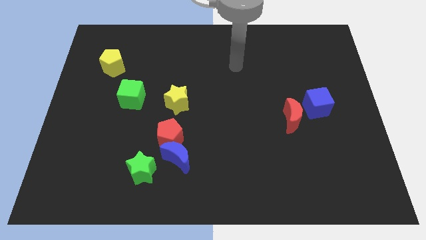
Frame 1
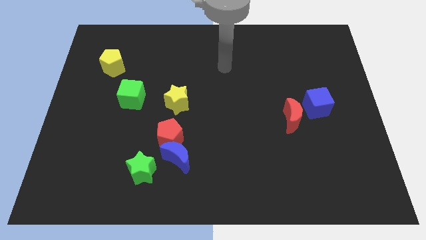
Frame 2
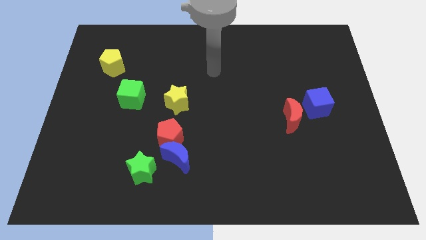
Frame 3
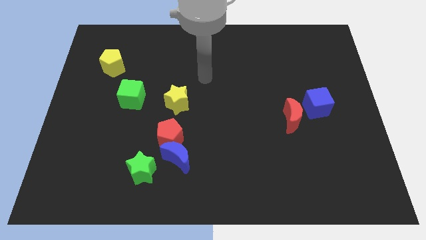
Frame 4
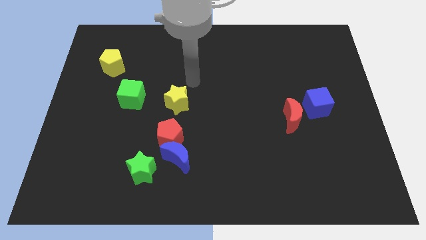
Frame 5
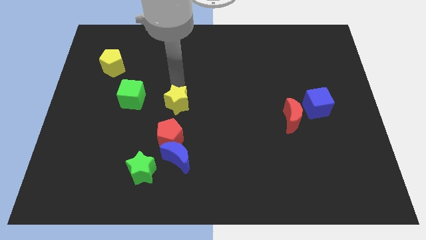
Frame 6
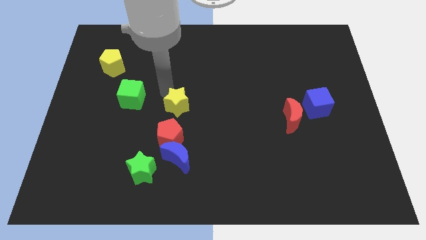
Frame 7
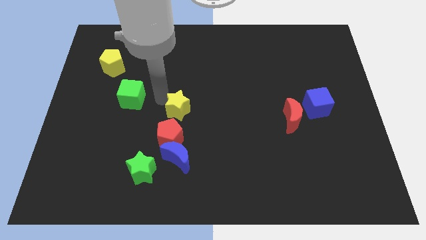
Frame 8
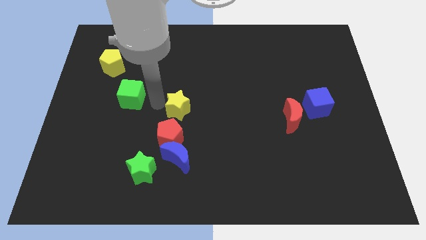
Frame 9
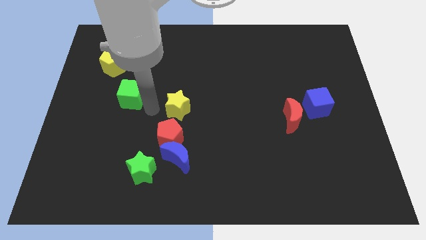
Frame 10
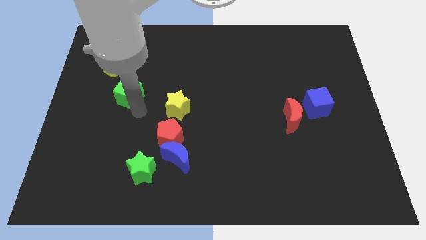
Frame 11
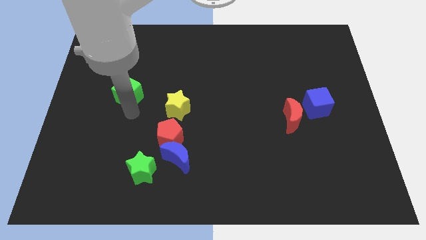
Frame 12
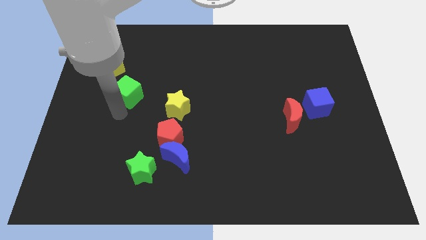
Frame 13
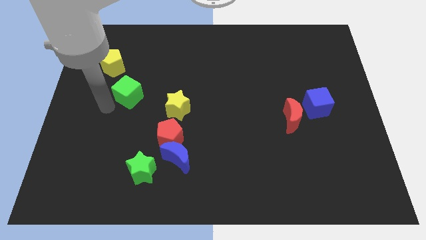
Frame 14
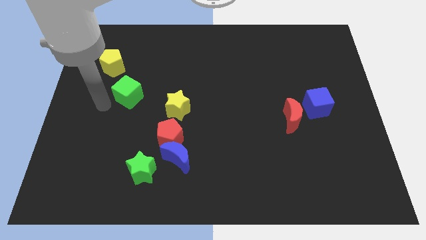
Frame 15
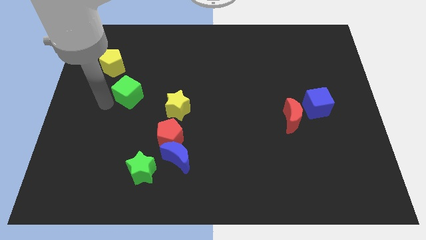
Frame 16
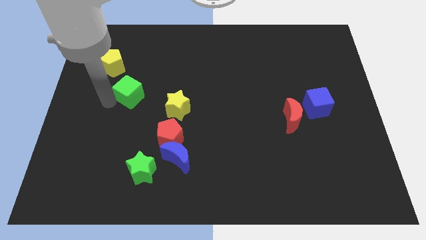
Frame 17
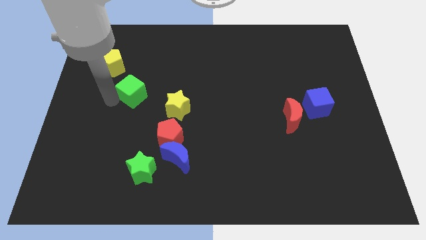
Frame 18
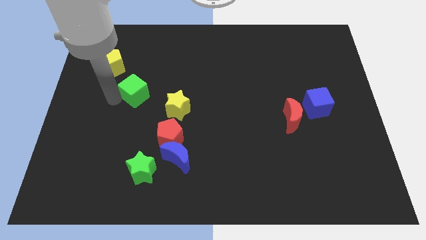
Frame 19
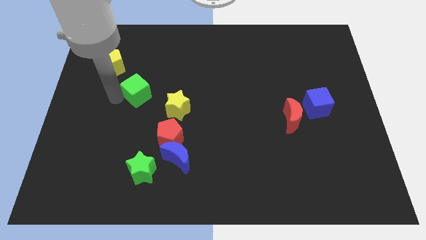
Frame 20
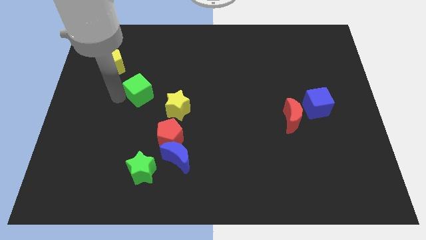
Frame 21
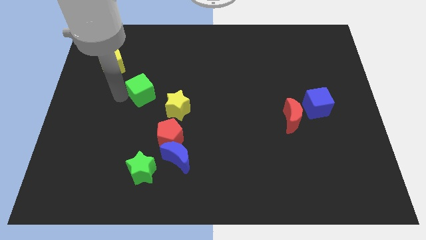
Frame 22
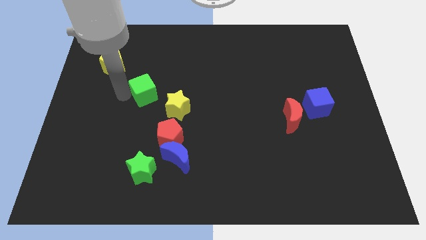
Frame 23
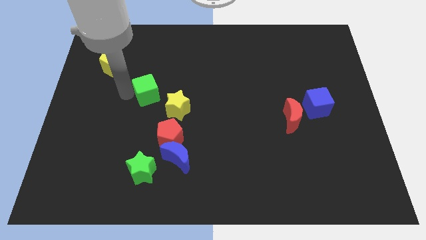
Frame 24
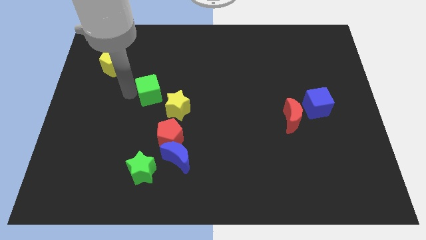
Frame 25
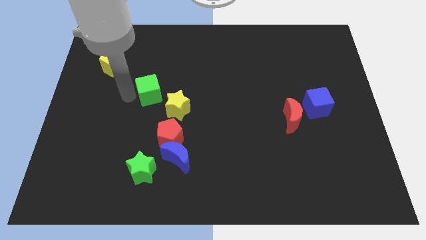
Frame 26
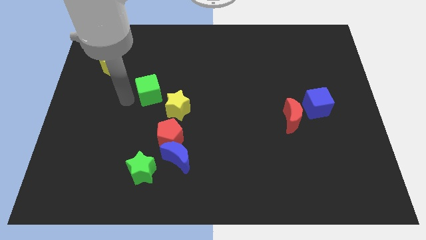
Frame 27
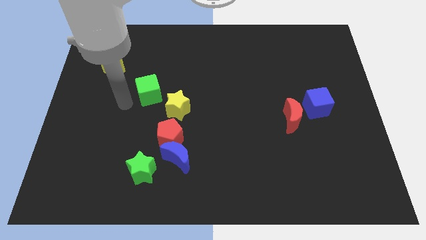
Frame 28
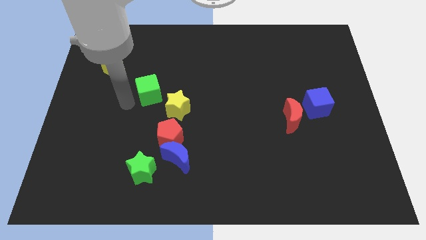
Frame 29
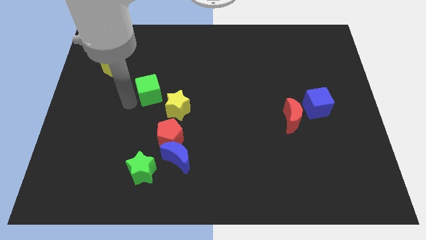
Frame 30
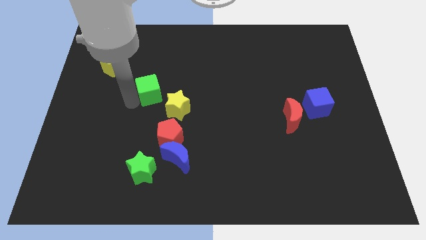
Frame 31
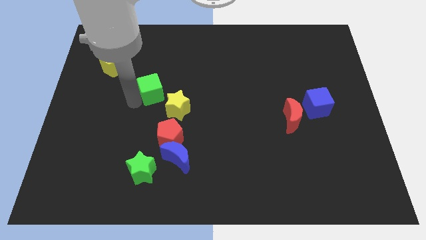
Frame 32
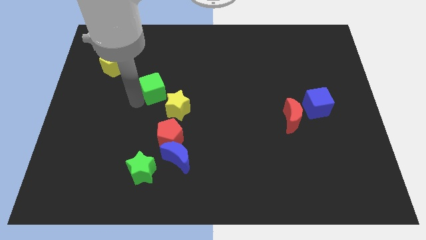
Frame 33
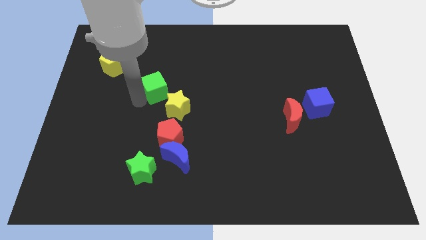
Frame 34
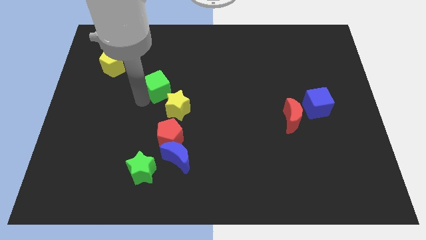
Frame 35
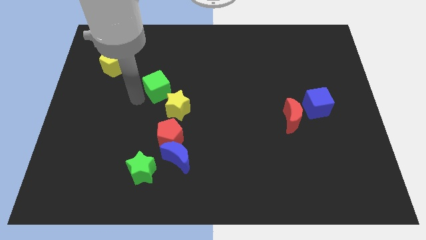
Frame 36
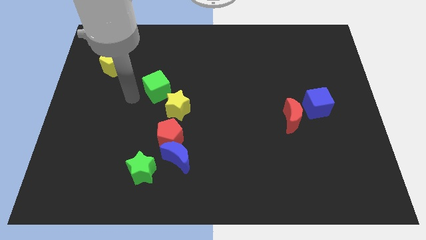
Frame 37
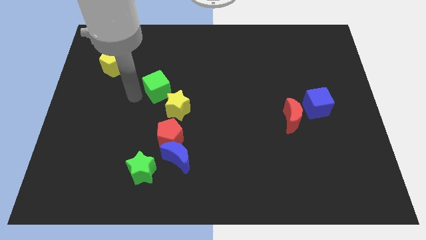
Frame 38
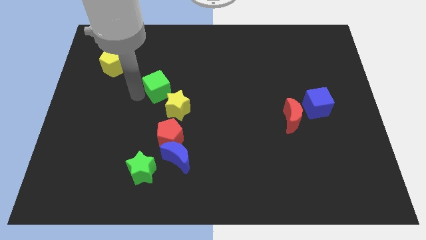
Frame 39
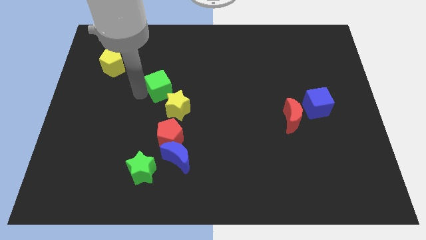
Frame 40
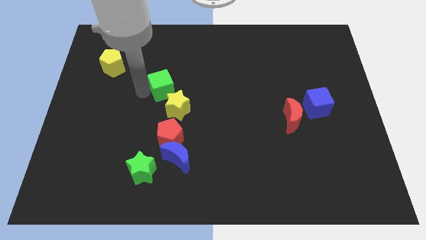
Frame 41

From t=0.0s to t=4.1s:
slide the green cube a little right

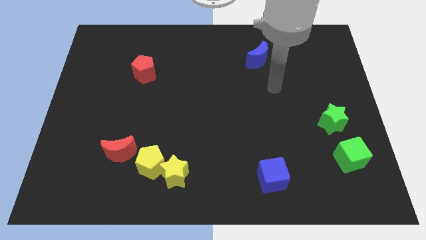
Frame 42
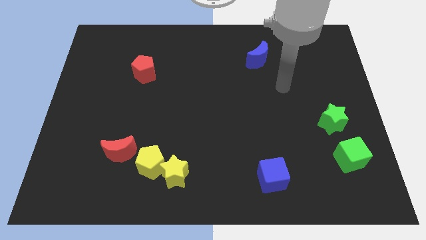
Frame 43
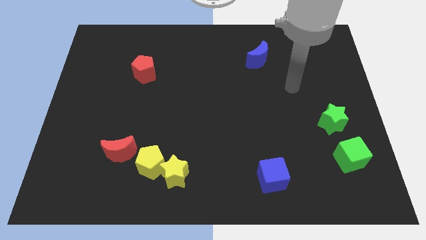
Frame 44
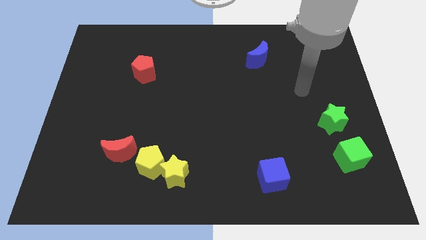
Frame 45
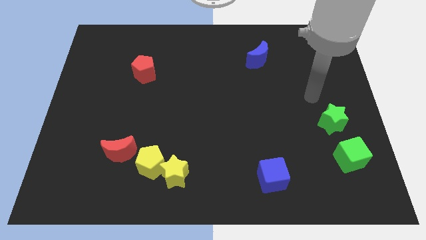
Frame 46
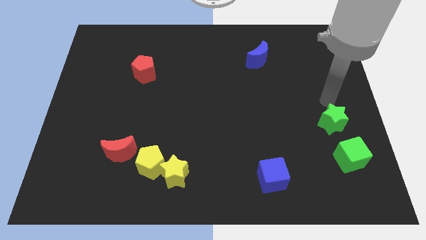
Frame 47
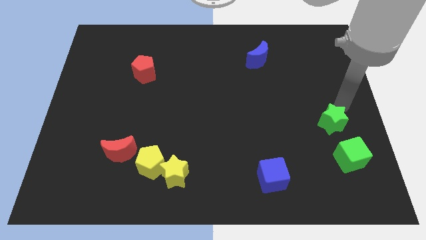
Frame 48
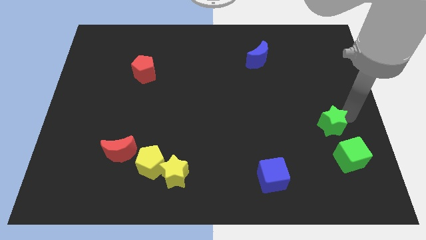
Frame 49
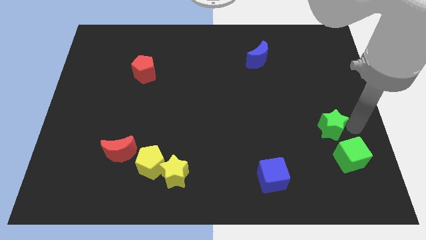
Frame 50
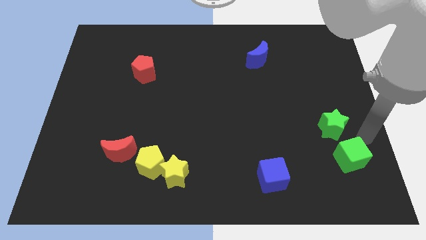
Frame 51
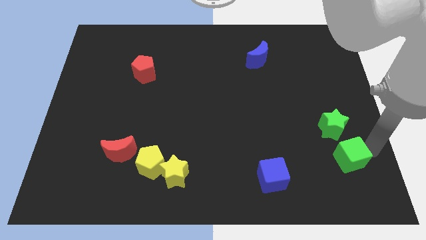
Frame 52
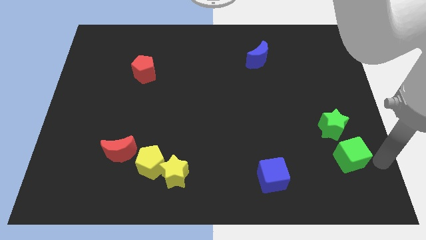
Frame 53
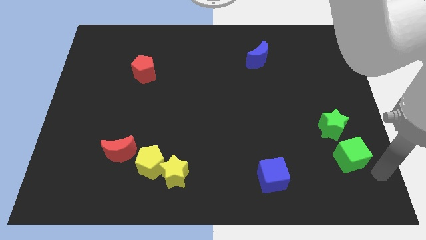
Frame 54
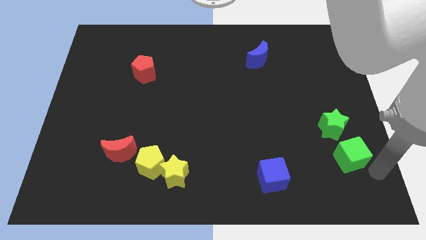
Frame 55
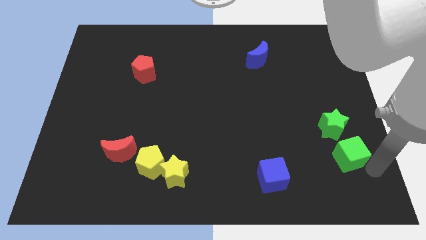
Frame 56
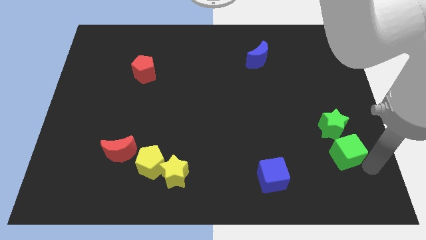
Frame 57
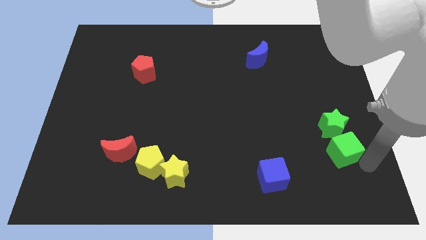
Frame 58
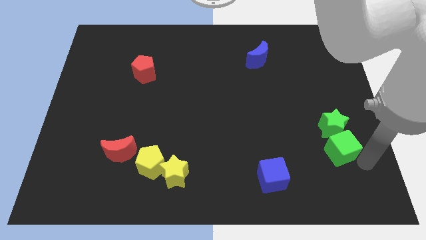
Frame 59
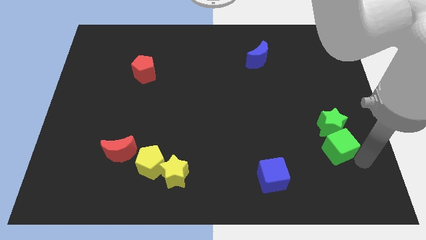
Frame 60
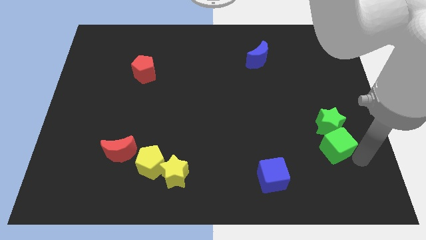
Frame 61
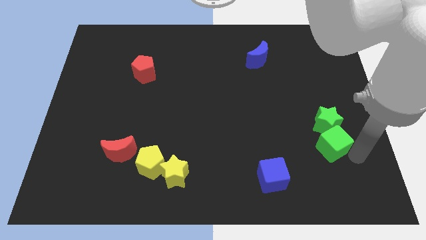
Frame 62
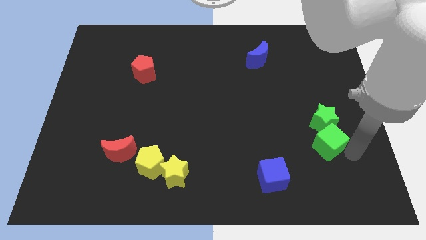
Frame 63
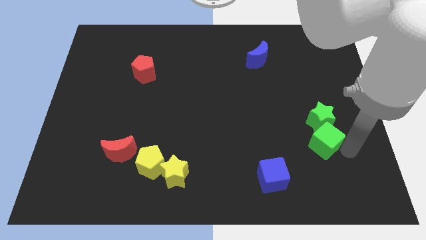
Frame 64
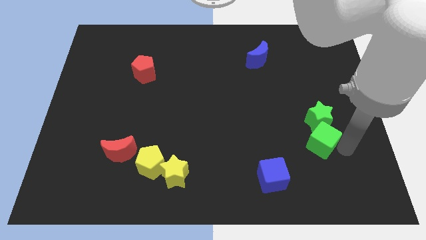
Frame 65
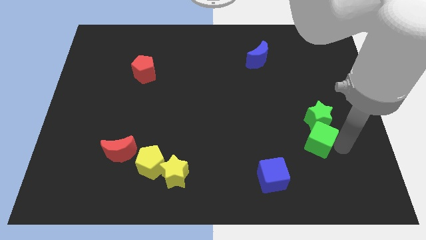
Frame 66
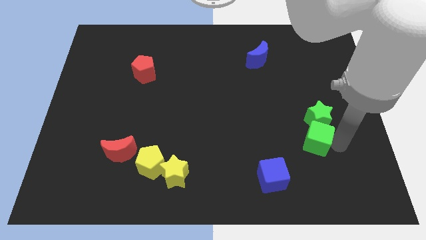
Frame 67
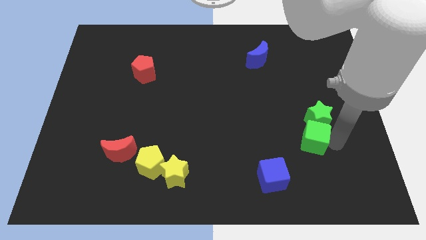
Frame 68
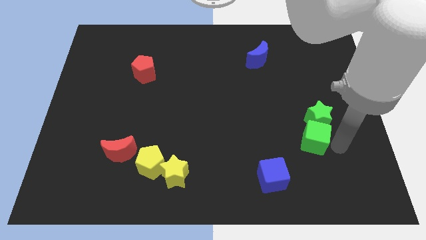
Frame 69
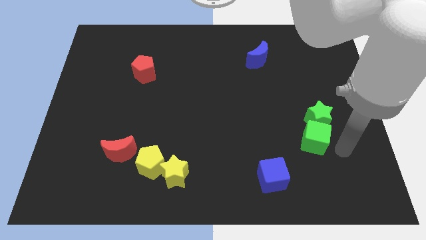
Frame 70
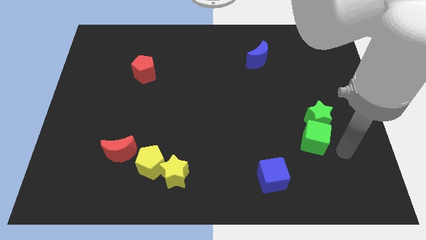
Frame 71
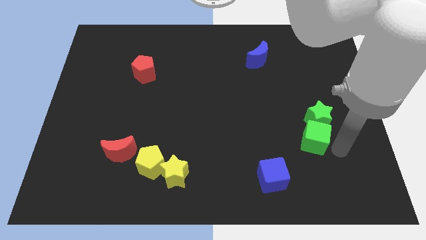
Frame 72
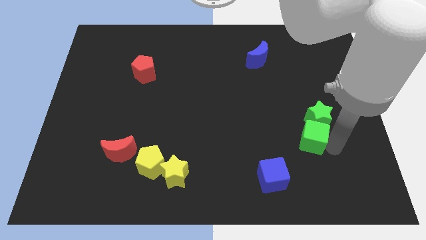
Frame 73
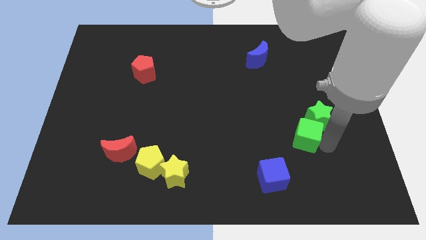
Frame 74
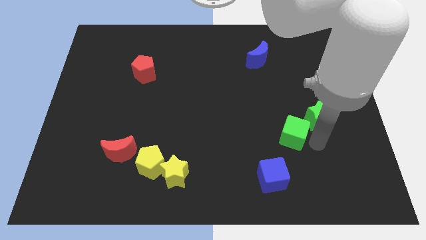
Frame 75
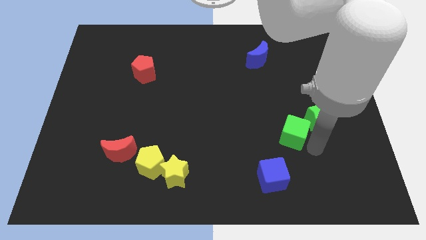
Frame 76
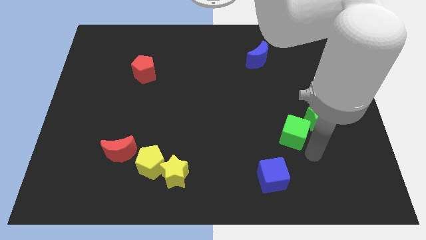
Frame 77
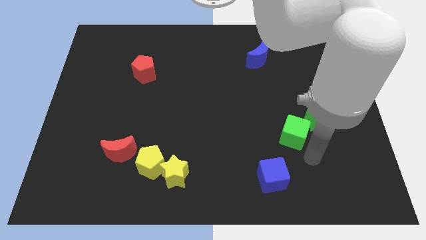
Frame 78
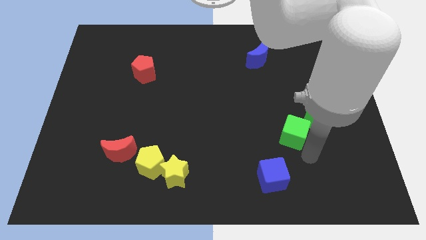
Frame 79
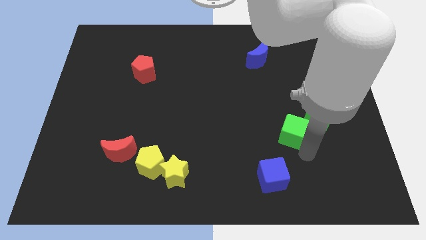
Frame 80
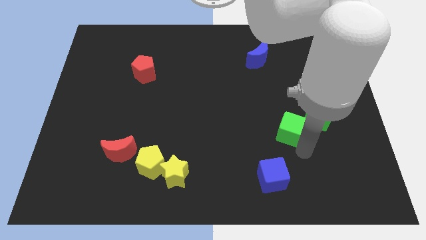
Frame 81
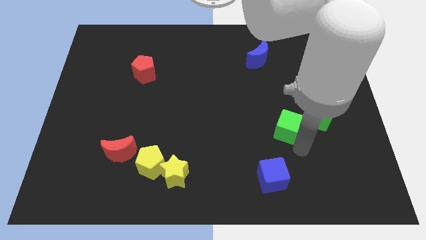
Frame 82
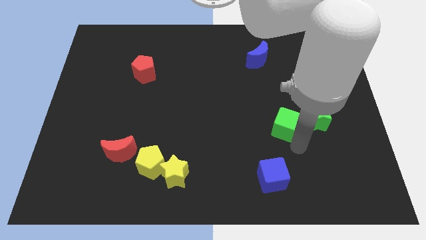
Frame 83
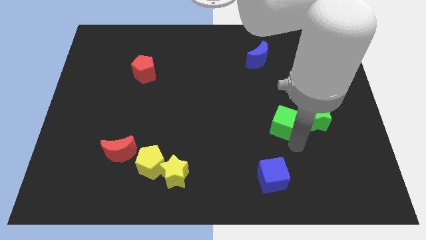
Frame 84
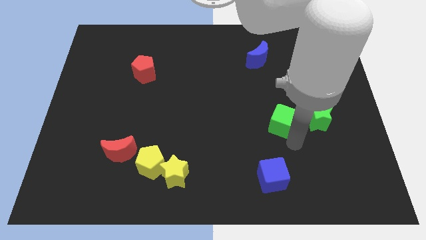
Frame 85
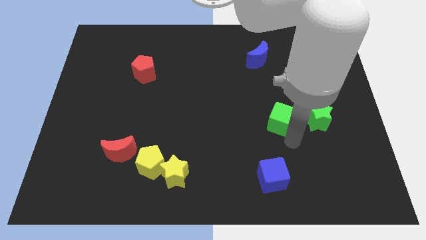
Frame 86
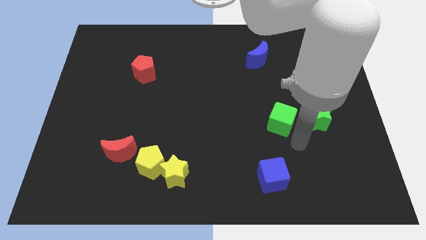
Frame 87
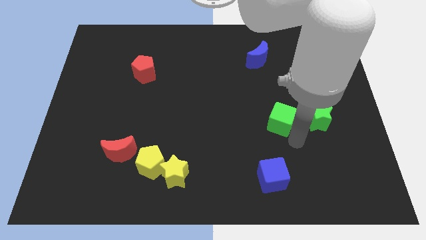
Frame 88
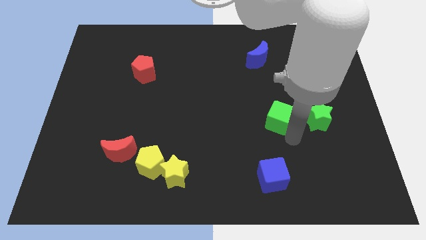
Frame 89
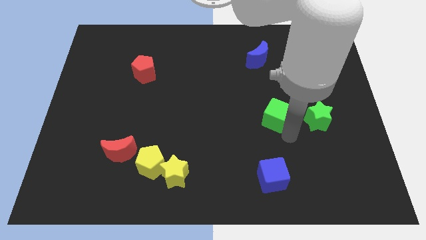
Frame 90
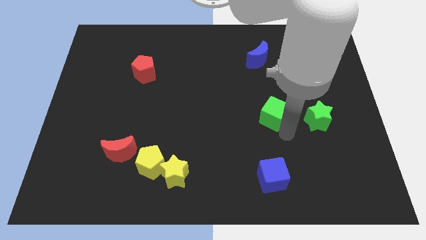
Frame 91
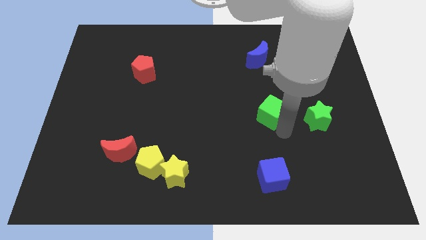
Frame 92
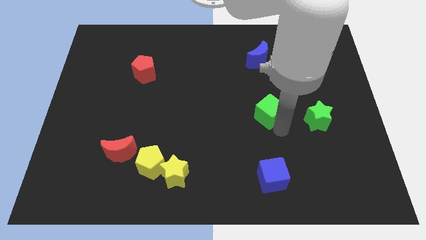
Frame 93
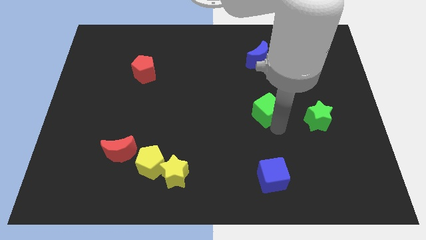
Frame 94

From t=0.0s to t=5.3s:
move the green cube upwards and to the left
